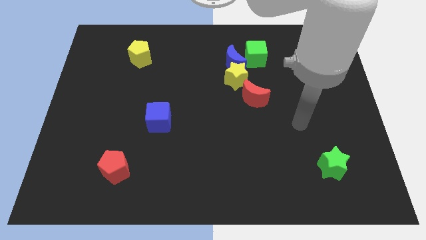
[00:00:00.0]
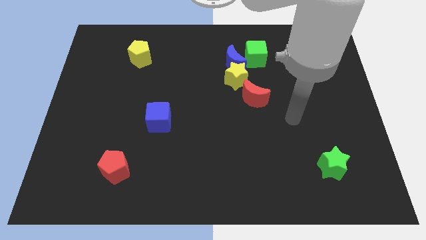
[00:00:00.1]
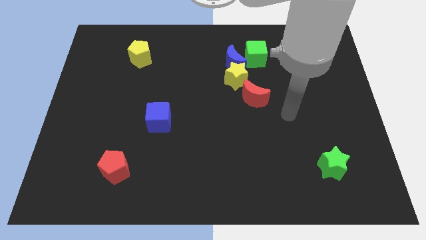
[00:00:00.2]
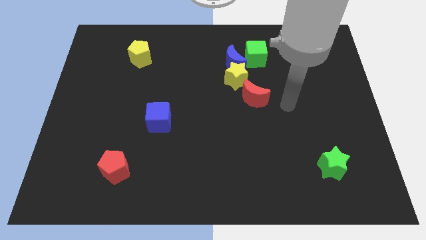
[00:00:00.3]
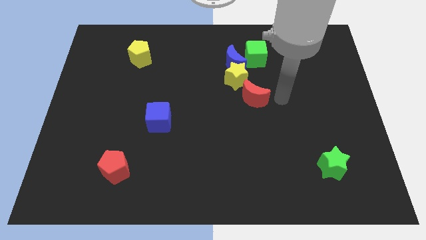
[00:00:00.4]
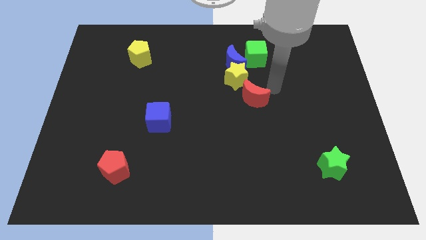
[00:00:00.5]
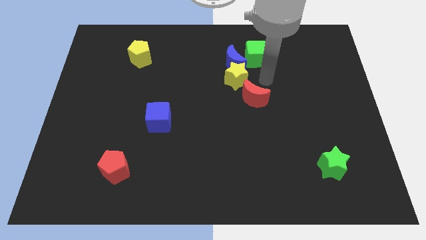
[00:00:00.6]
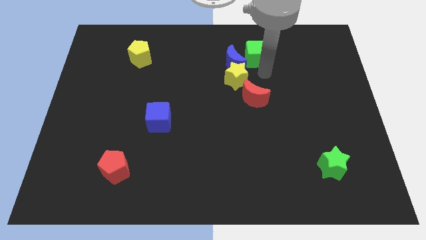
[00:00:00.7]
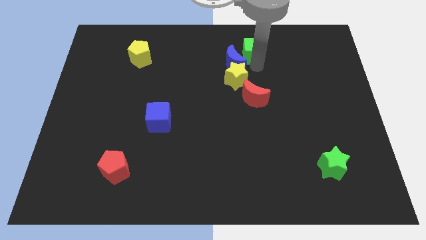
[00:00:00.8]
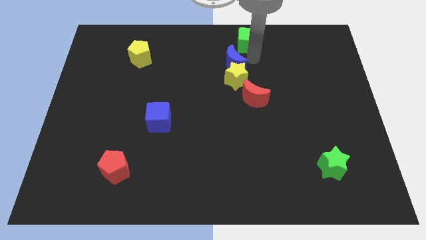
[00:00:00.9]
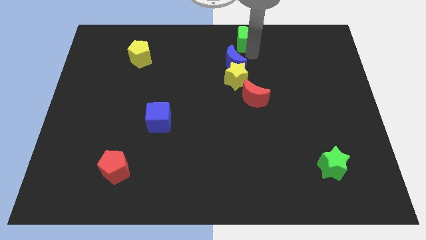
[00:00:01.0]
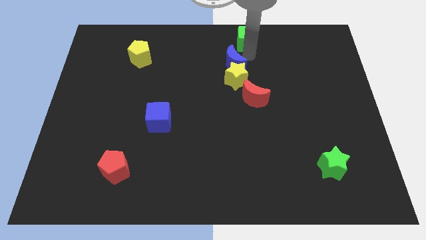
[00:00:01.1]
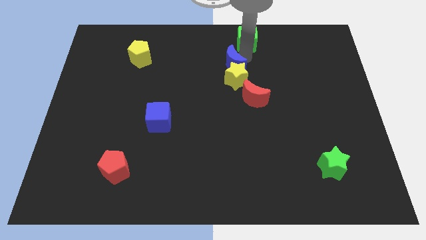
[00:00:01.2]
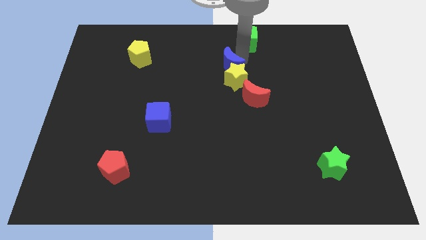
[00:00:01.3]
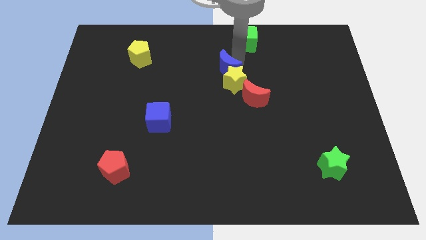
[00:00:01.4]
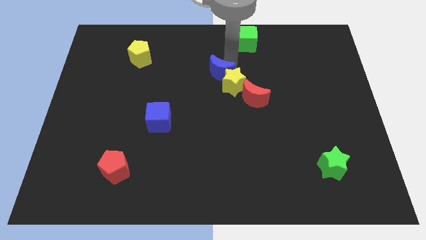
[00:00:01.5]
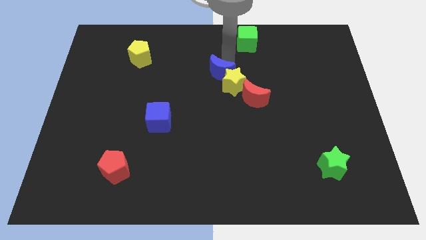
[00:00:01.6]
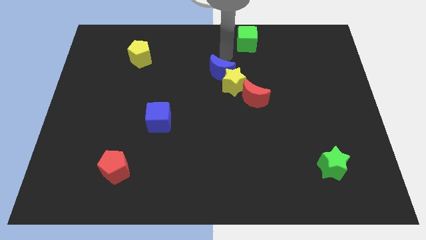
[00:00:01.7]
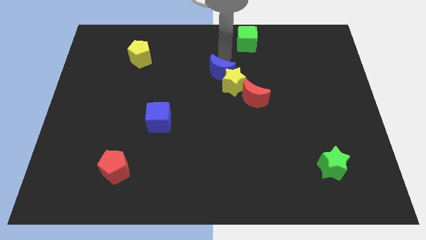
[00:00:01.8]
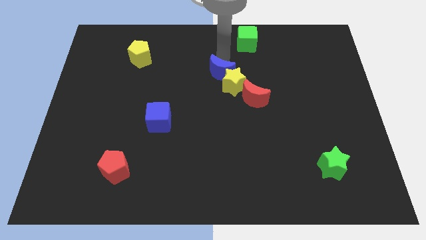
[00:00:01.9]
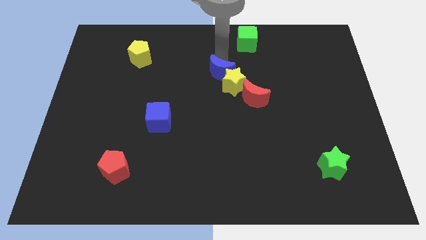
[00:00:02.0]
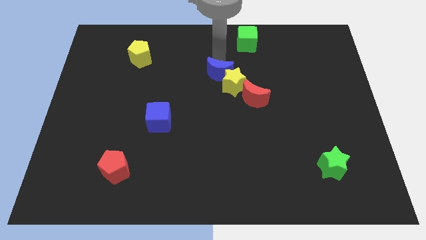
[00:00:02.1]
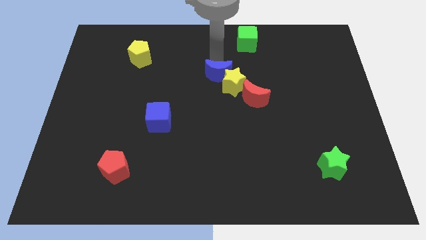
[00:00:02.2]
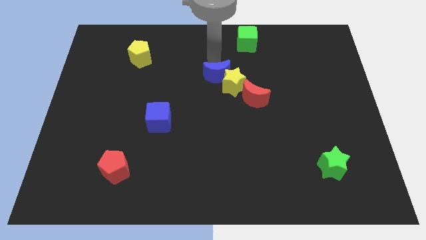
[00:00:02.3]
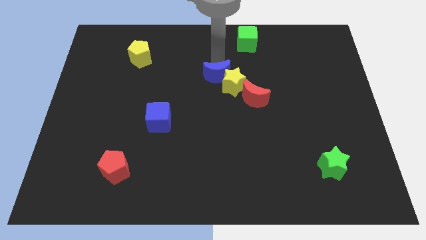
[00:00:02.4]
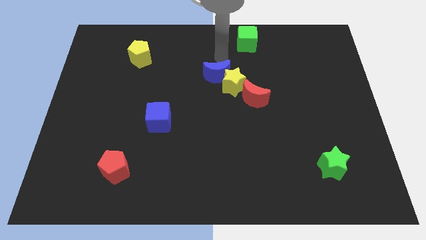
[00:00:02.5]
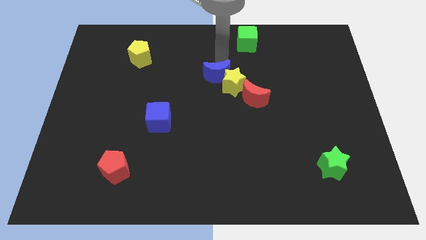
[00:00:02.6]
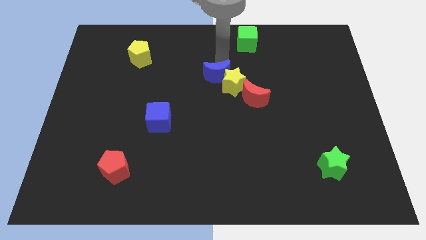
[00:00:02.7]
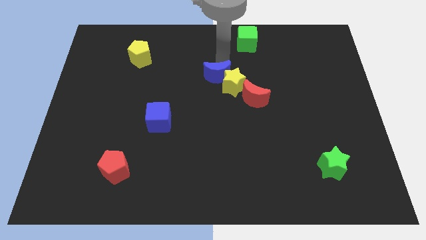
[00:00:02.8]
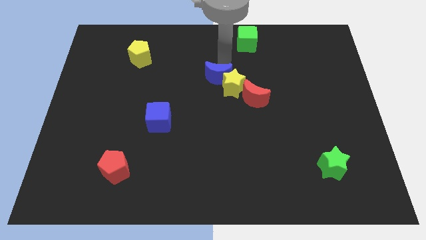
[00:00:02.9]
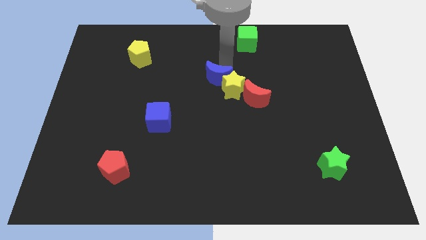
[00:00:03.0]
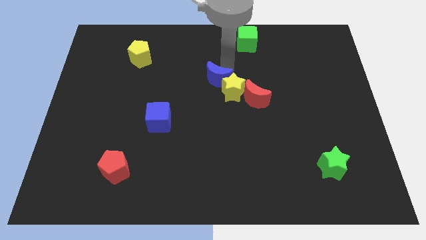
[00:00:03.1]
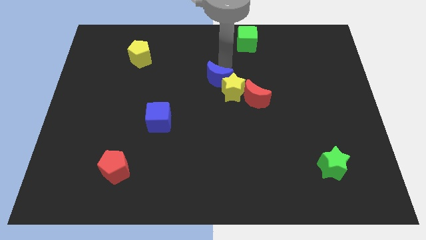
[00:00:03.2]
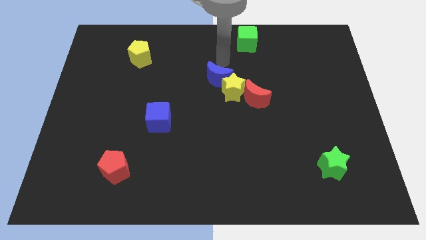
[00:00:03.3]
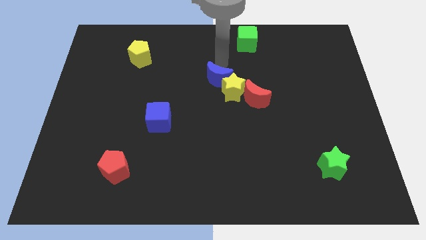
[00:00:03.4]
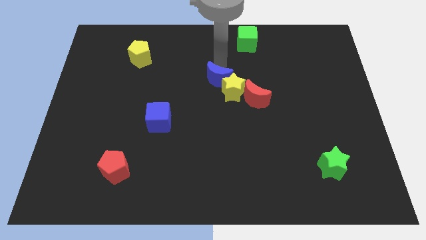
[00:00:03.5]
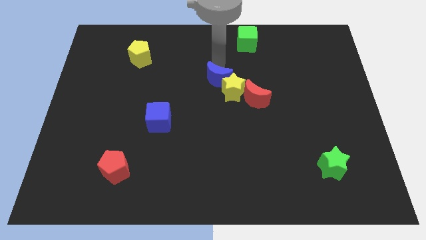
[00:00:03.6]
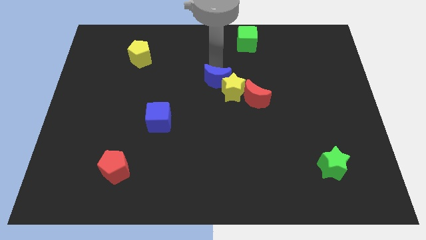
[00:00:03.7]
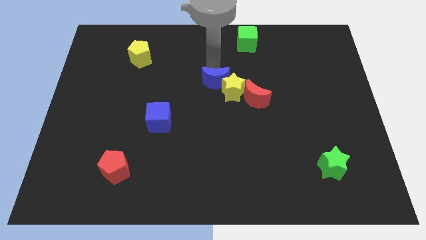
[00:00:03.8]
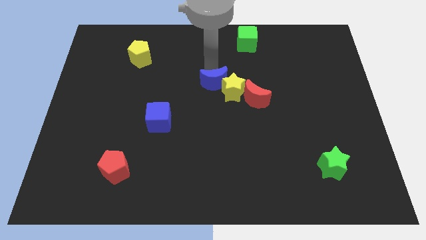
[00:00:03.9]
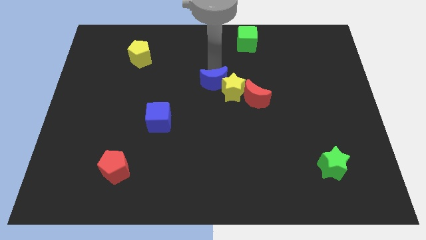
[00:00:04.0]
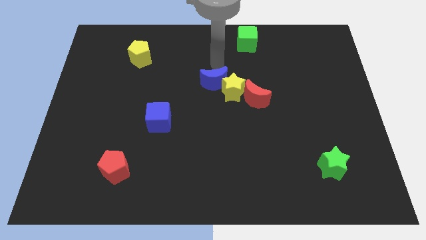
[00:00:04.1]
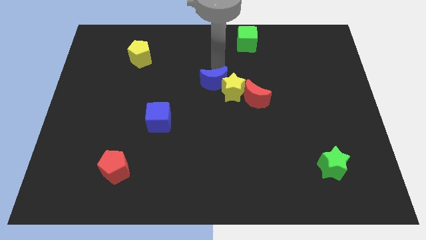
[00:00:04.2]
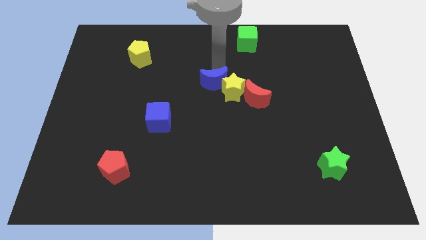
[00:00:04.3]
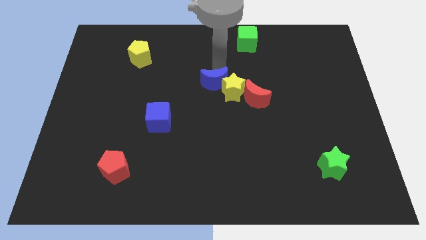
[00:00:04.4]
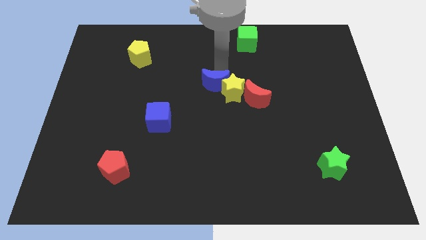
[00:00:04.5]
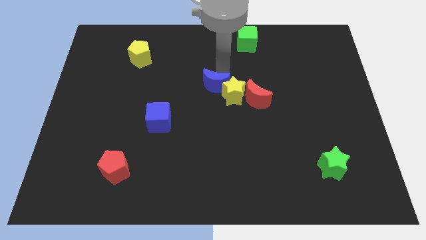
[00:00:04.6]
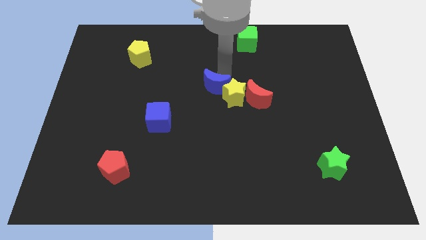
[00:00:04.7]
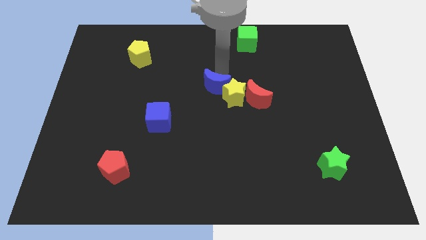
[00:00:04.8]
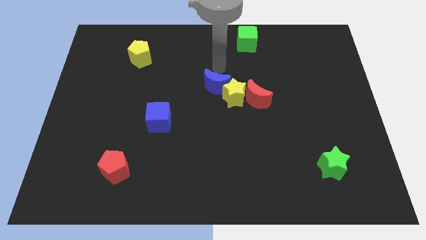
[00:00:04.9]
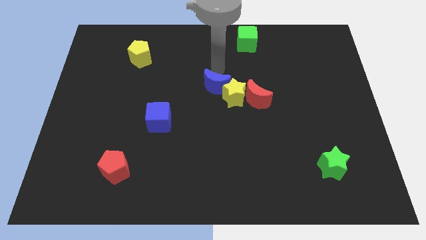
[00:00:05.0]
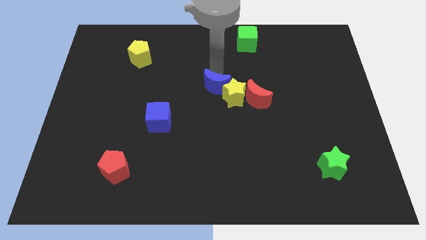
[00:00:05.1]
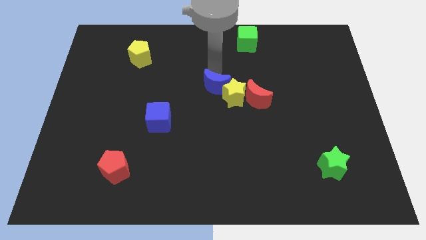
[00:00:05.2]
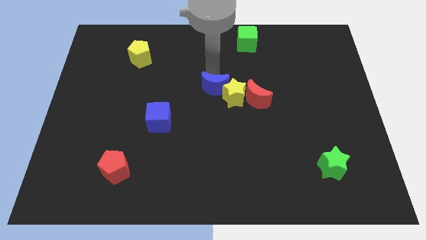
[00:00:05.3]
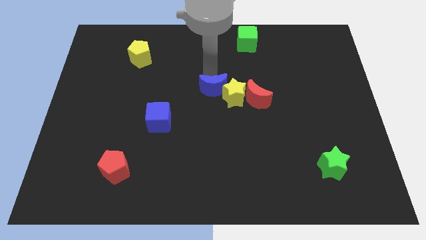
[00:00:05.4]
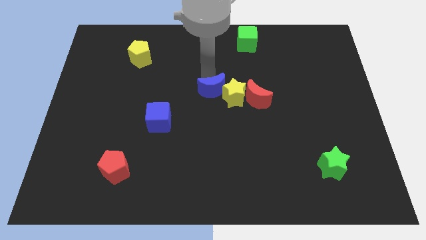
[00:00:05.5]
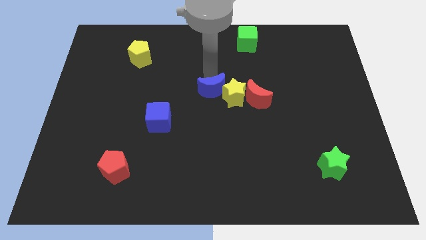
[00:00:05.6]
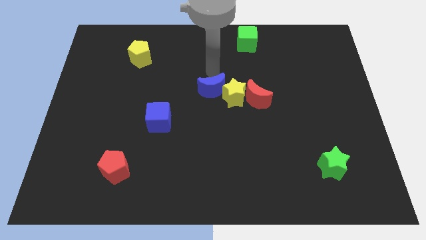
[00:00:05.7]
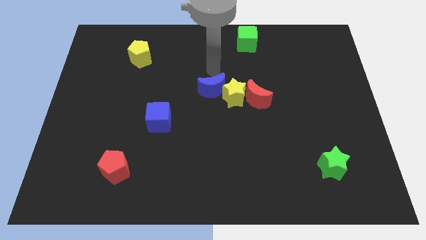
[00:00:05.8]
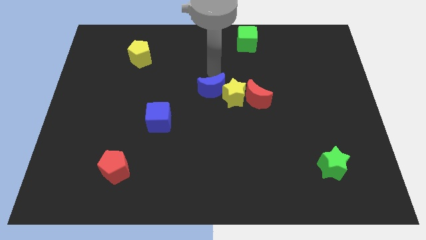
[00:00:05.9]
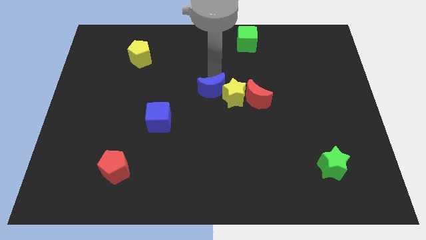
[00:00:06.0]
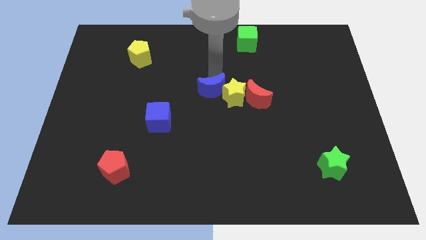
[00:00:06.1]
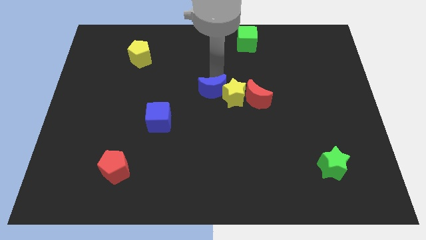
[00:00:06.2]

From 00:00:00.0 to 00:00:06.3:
slide the blue moon to the bottom left side of the yellow star
